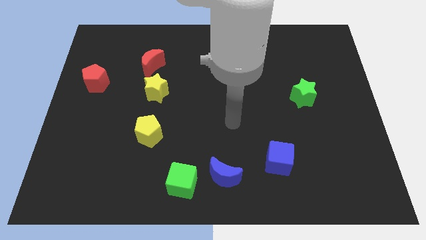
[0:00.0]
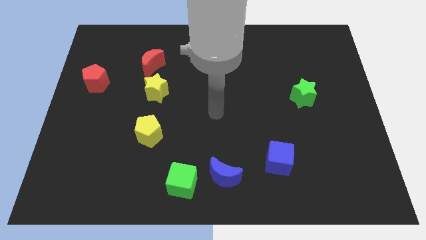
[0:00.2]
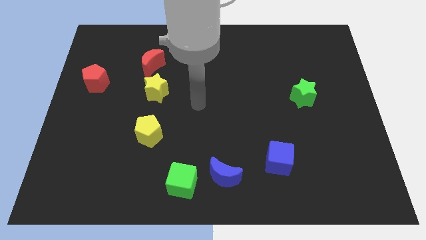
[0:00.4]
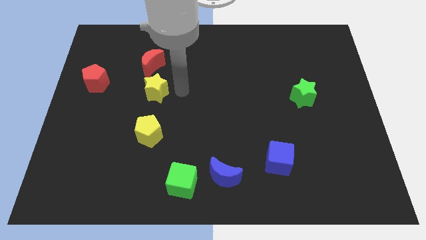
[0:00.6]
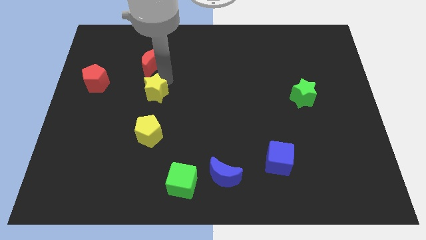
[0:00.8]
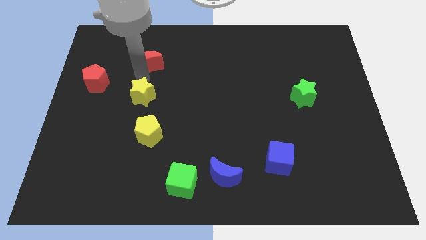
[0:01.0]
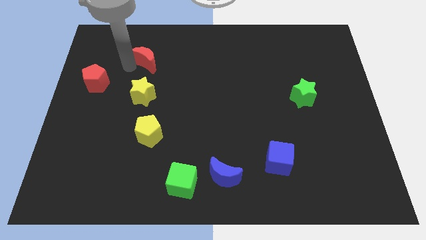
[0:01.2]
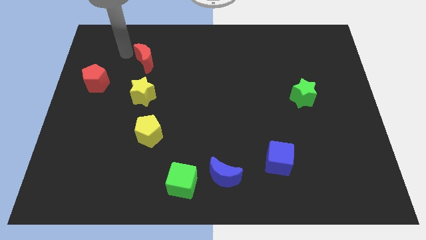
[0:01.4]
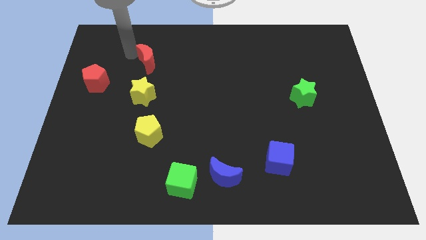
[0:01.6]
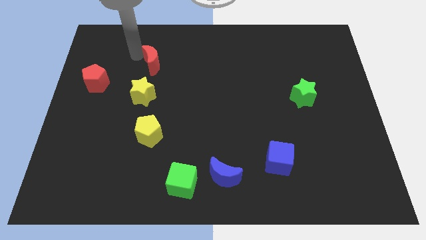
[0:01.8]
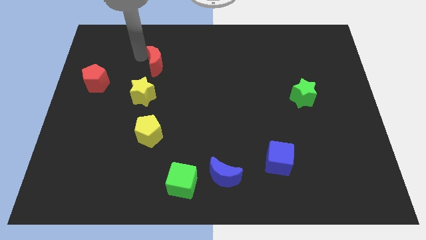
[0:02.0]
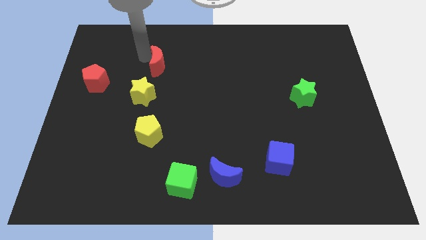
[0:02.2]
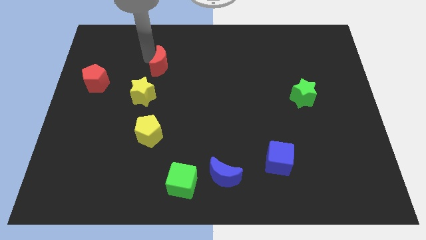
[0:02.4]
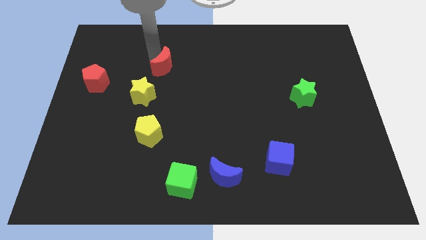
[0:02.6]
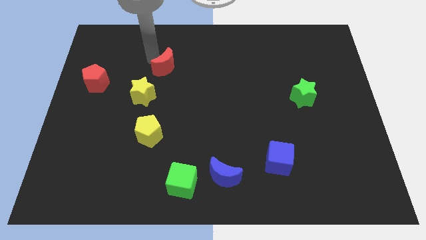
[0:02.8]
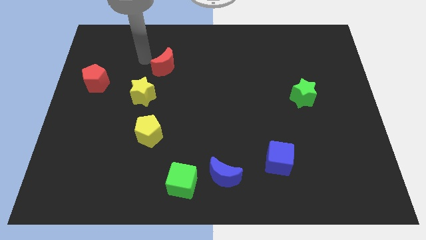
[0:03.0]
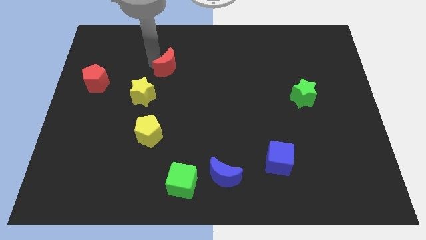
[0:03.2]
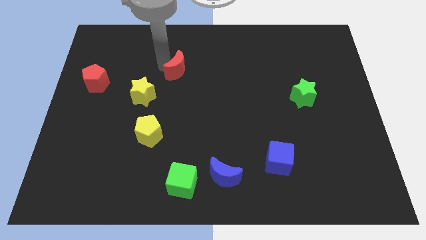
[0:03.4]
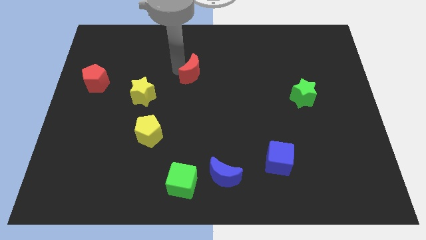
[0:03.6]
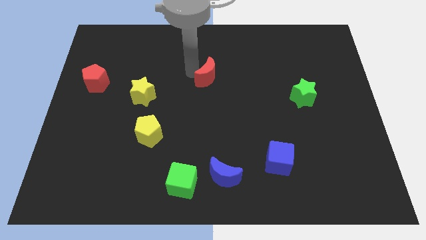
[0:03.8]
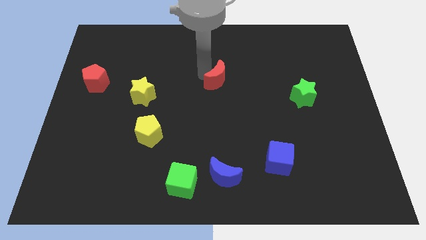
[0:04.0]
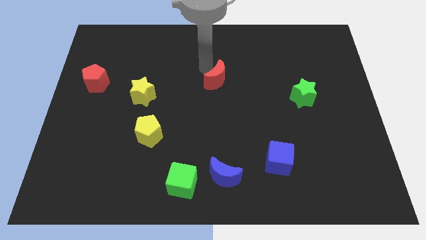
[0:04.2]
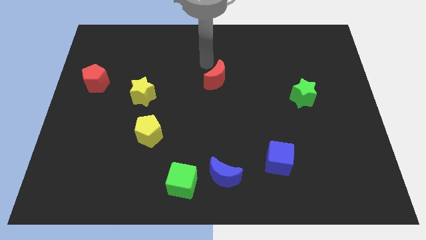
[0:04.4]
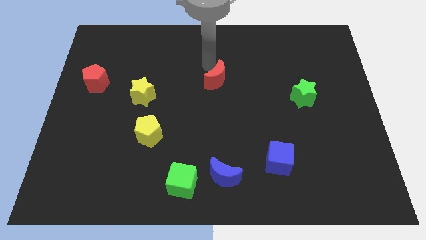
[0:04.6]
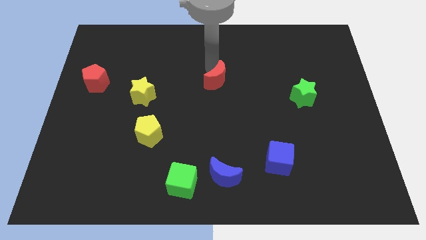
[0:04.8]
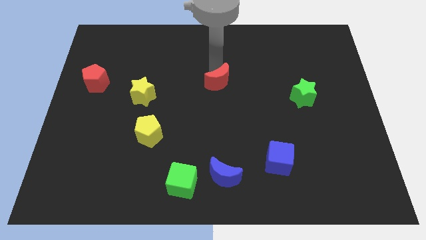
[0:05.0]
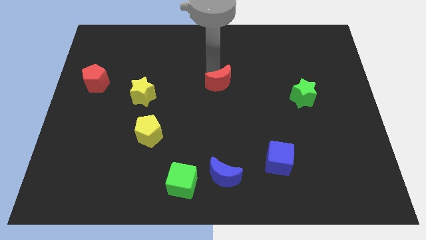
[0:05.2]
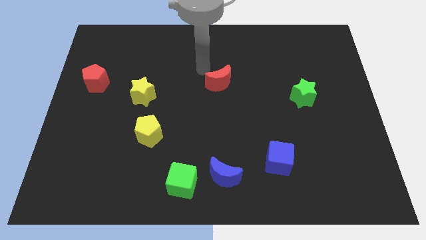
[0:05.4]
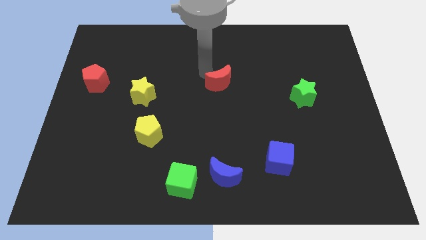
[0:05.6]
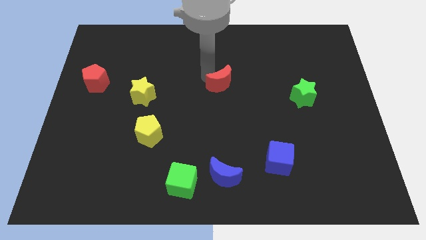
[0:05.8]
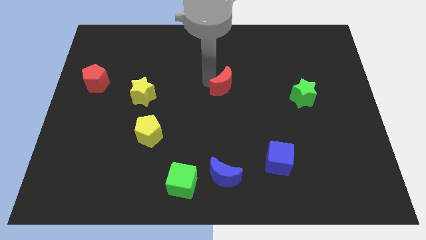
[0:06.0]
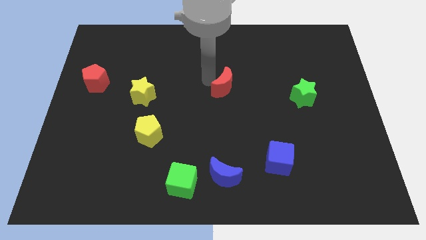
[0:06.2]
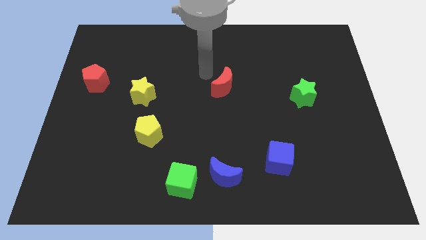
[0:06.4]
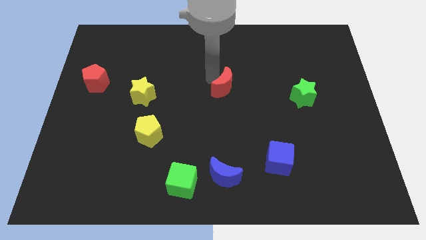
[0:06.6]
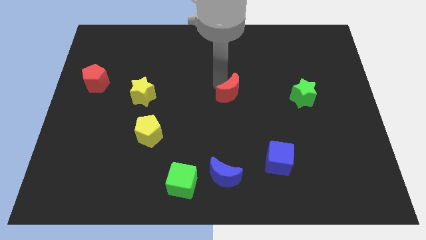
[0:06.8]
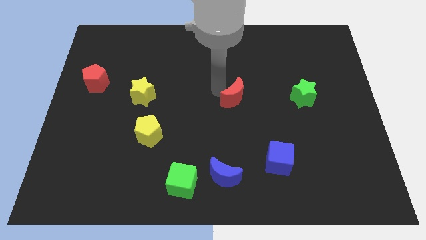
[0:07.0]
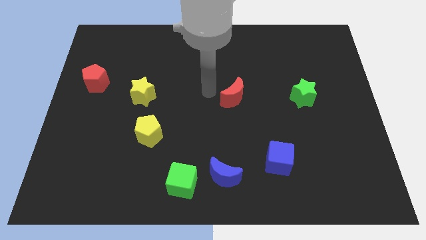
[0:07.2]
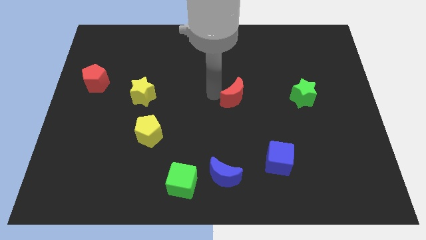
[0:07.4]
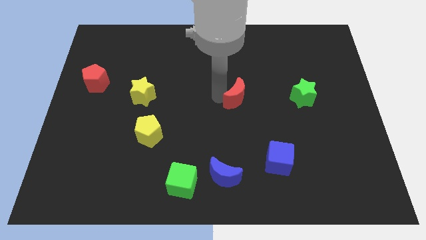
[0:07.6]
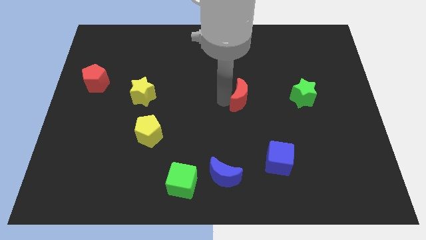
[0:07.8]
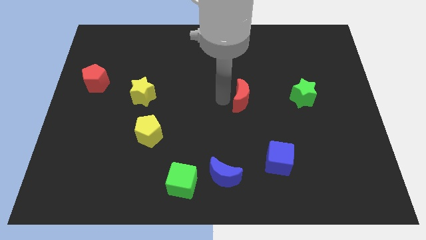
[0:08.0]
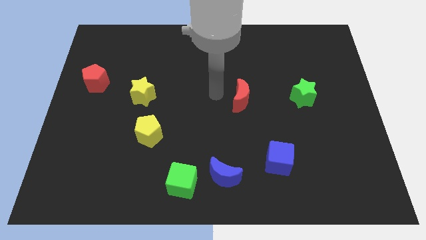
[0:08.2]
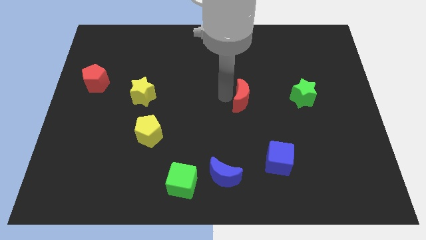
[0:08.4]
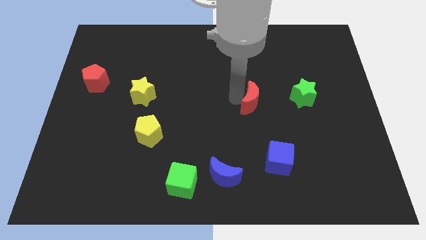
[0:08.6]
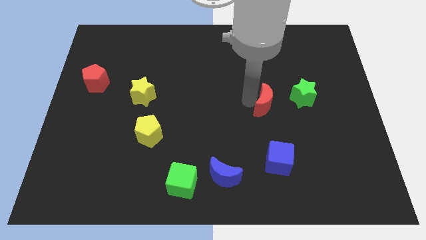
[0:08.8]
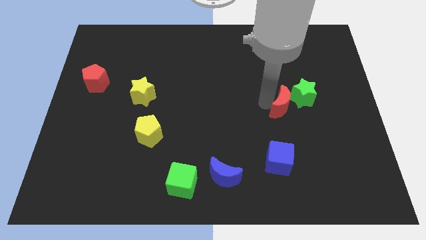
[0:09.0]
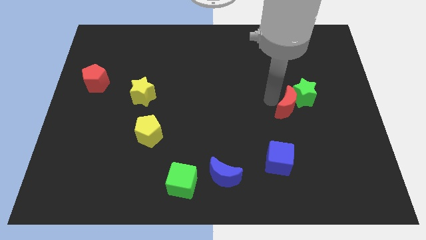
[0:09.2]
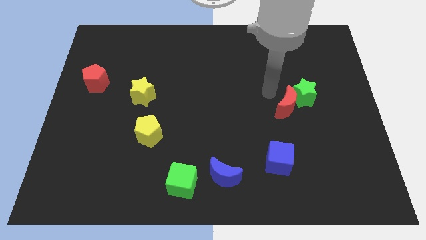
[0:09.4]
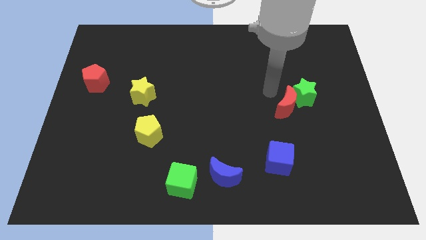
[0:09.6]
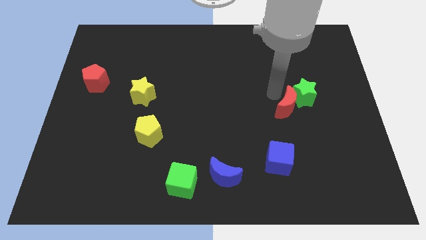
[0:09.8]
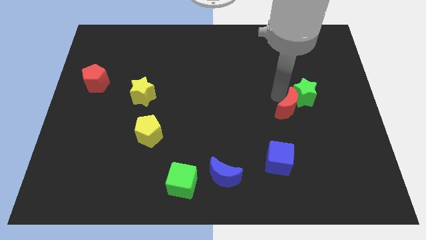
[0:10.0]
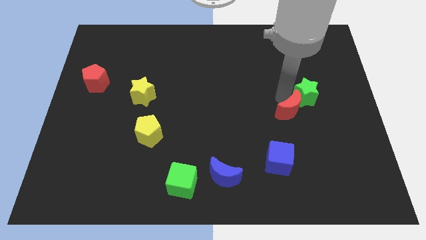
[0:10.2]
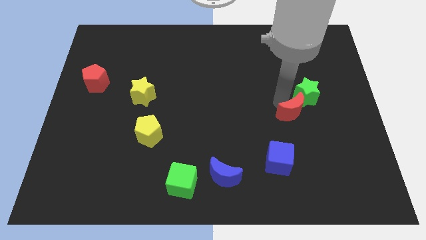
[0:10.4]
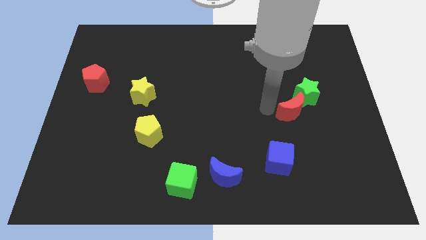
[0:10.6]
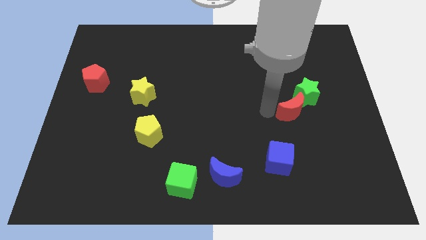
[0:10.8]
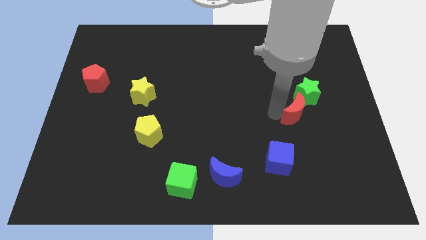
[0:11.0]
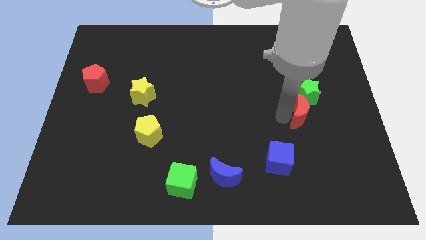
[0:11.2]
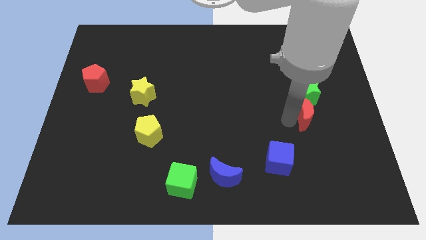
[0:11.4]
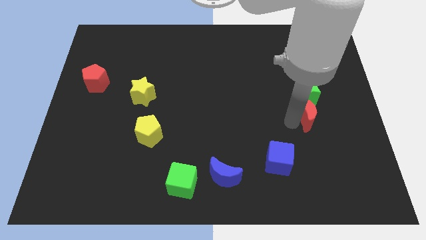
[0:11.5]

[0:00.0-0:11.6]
slide the red moon to the bottom right side of the green star

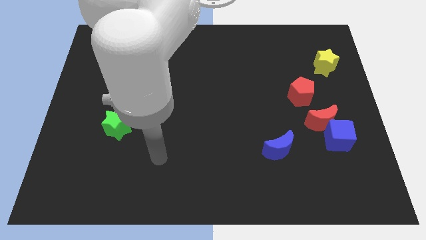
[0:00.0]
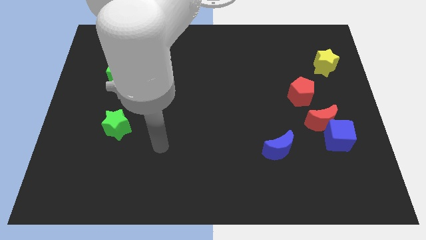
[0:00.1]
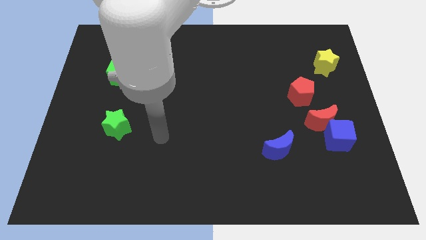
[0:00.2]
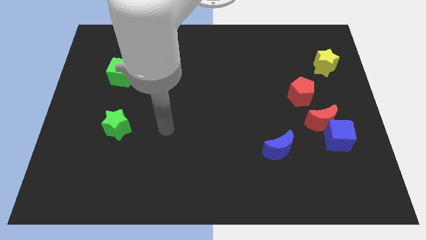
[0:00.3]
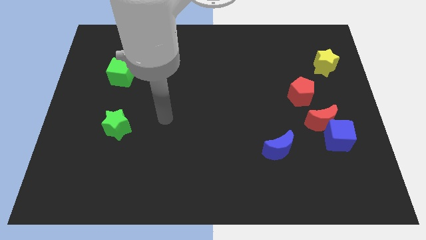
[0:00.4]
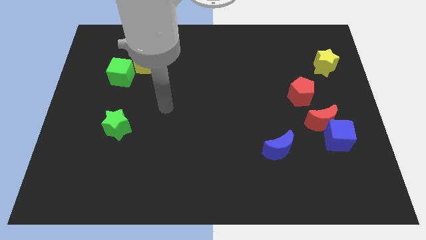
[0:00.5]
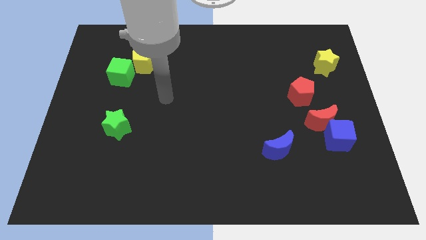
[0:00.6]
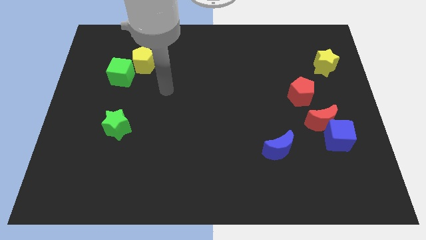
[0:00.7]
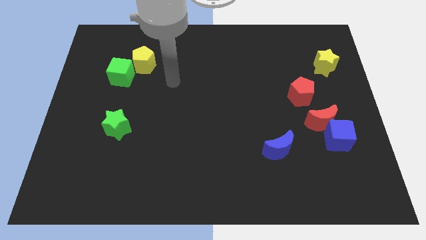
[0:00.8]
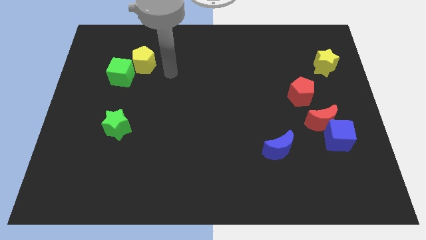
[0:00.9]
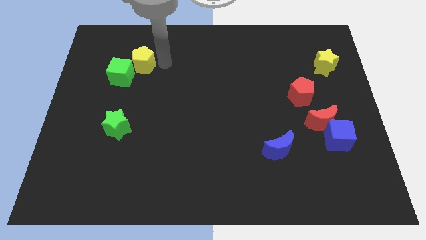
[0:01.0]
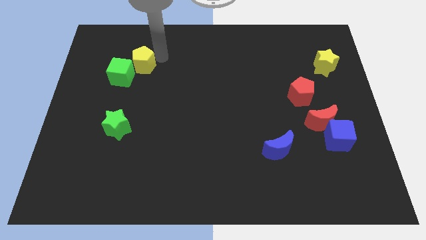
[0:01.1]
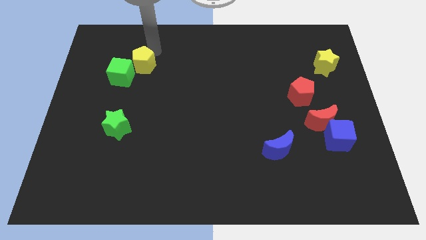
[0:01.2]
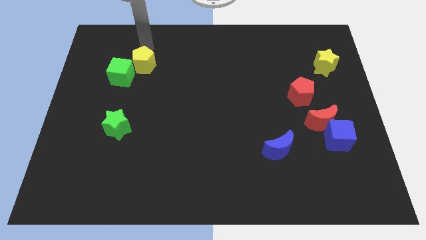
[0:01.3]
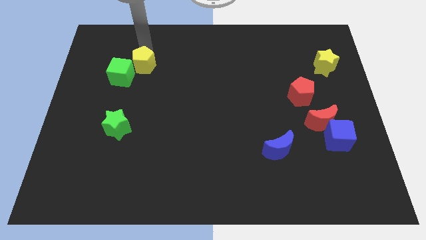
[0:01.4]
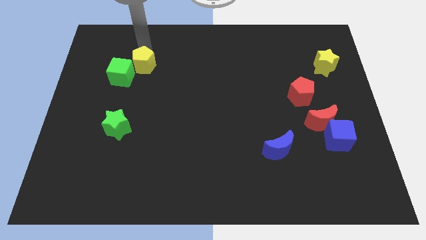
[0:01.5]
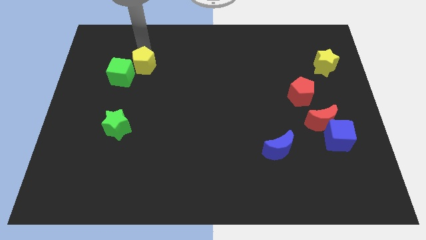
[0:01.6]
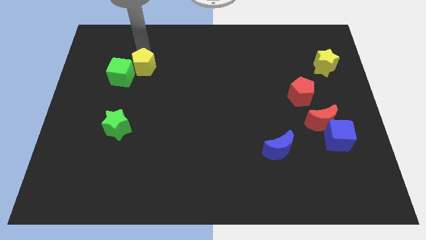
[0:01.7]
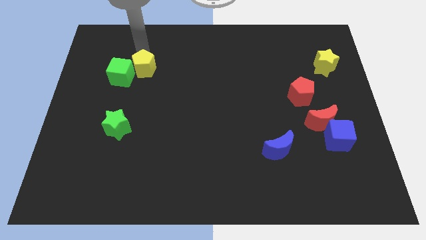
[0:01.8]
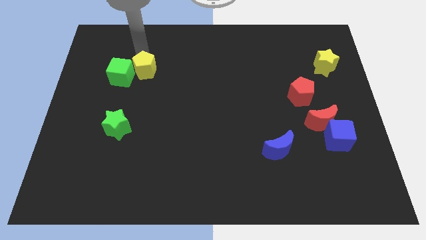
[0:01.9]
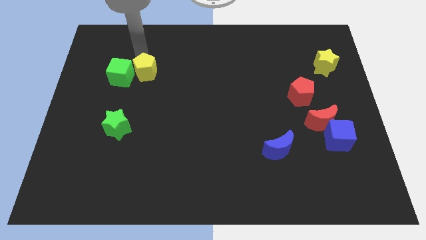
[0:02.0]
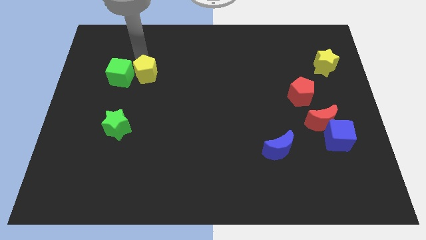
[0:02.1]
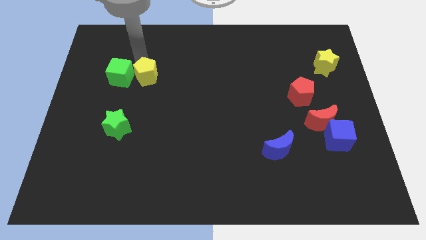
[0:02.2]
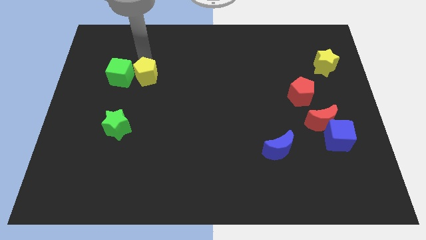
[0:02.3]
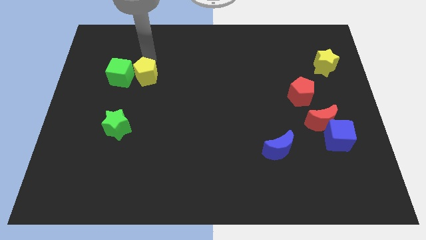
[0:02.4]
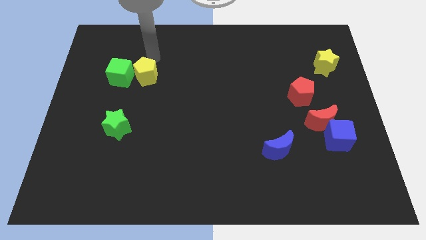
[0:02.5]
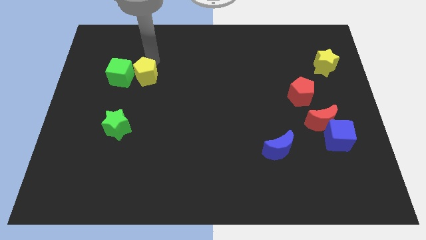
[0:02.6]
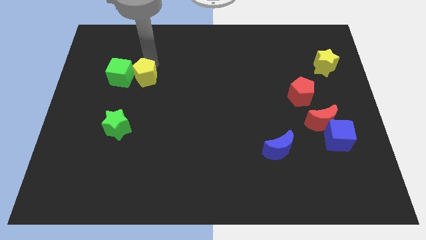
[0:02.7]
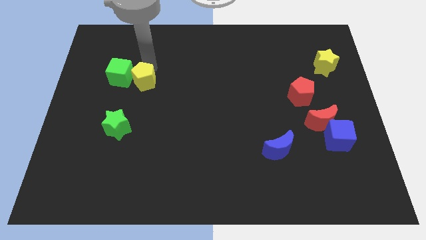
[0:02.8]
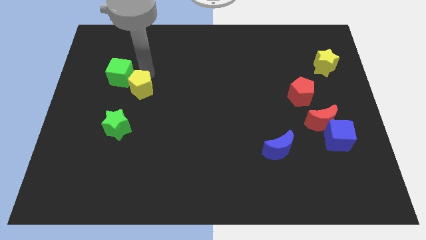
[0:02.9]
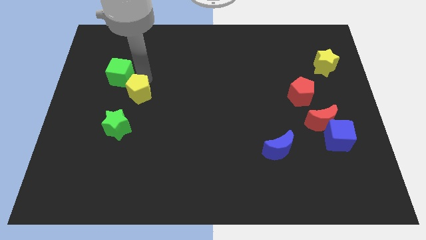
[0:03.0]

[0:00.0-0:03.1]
slide the yellow pentagon to the top right side of the green star

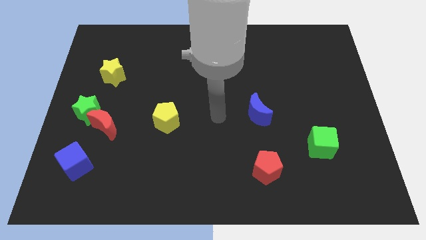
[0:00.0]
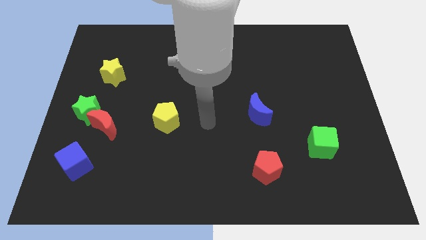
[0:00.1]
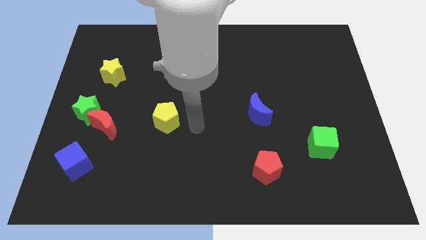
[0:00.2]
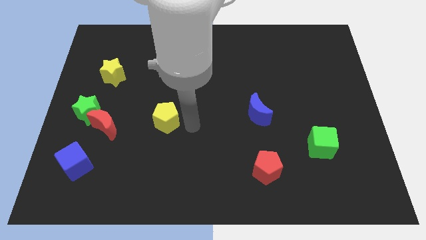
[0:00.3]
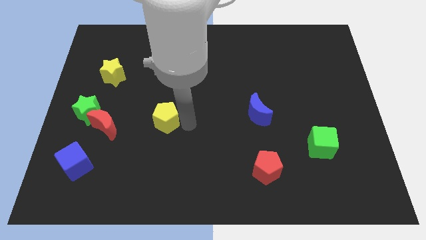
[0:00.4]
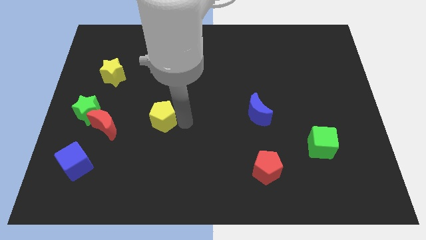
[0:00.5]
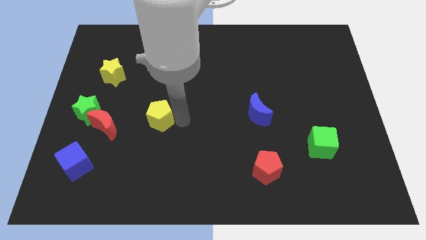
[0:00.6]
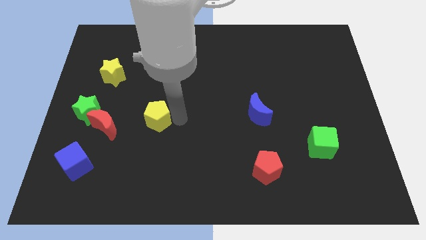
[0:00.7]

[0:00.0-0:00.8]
move the yellow pentagon right of the green star
